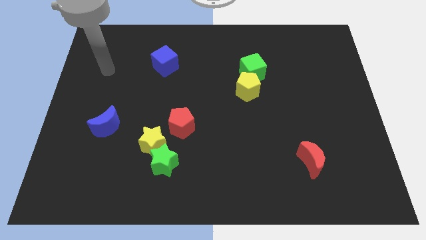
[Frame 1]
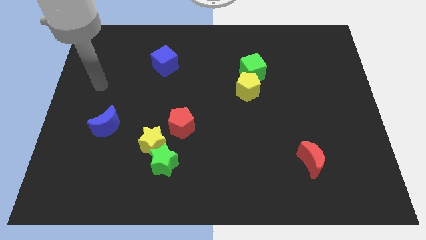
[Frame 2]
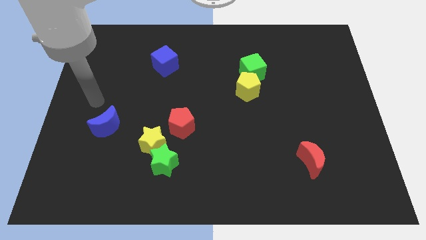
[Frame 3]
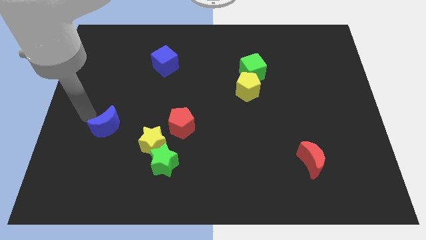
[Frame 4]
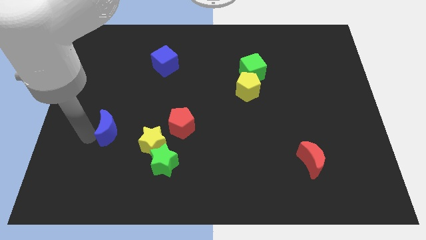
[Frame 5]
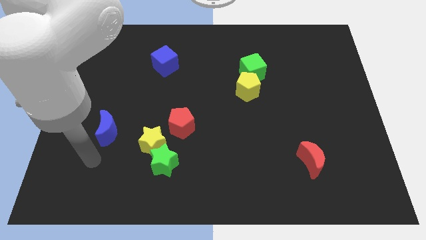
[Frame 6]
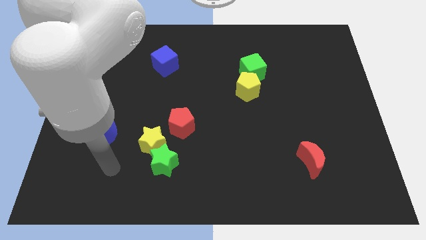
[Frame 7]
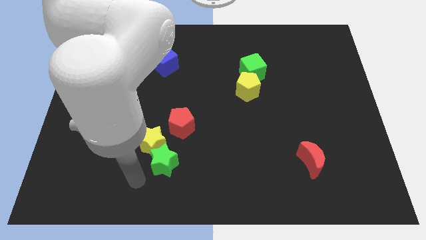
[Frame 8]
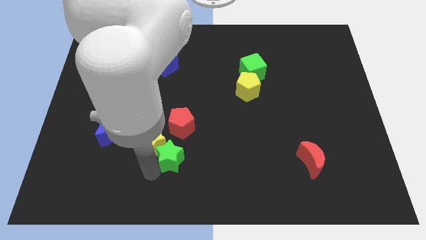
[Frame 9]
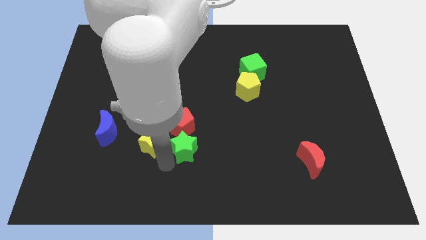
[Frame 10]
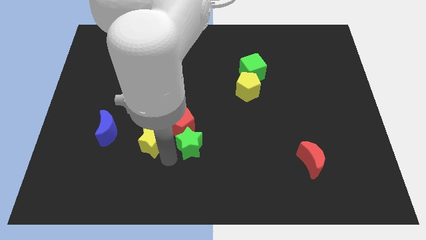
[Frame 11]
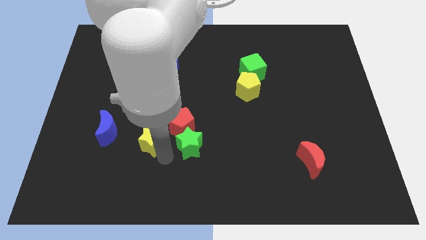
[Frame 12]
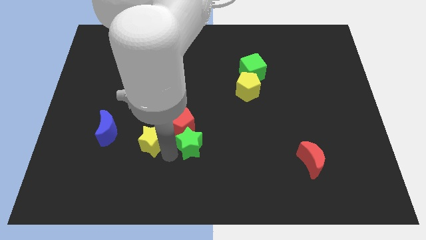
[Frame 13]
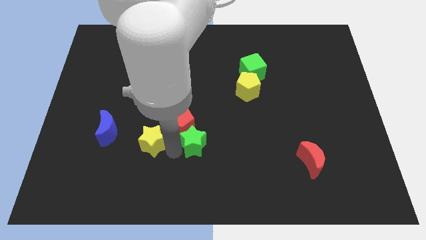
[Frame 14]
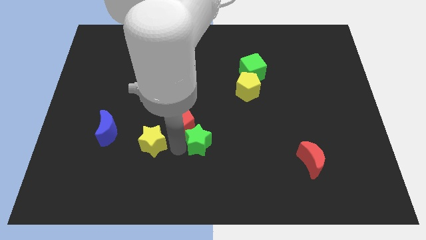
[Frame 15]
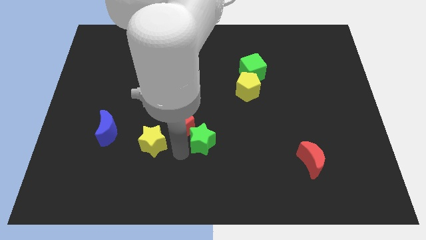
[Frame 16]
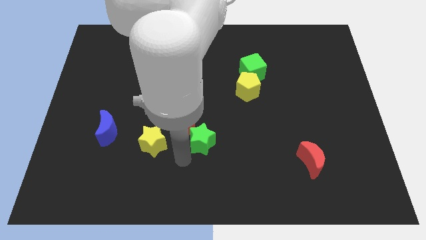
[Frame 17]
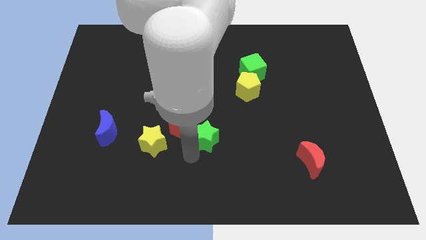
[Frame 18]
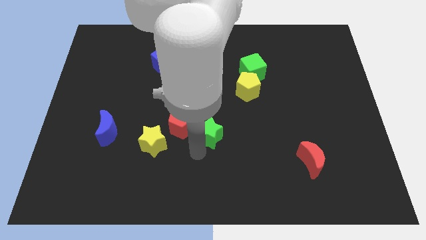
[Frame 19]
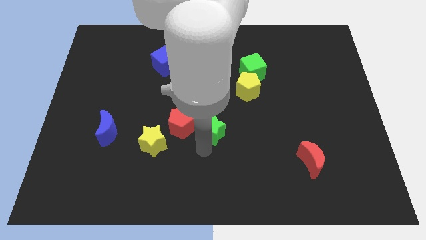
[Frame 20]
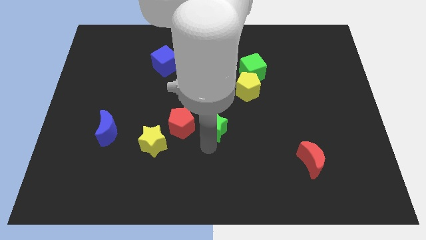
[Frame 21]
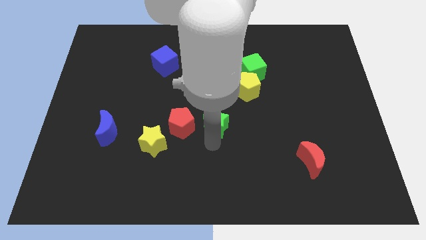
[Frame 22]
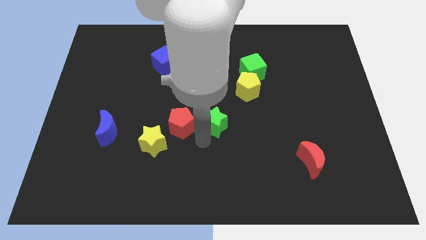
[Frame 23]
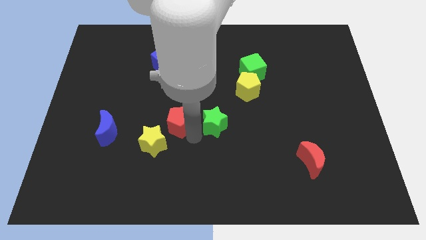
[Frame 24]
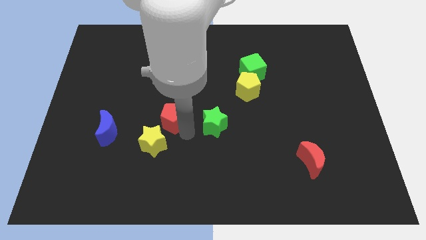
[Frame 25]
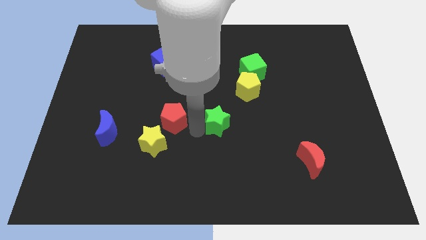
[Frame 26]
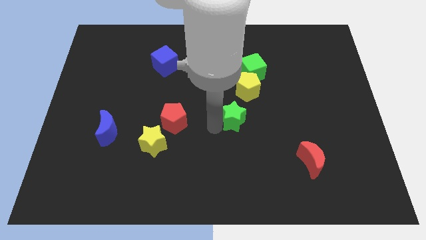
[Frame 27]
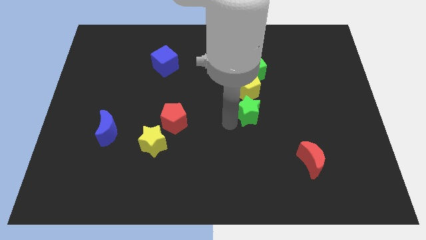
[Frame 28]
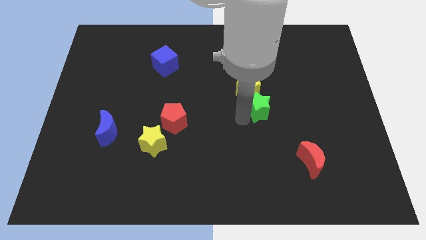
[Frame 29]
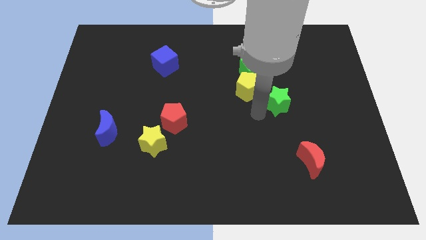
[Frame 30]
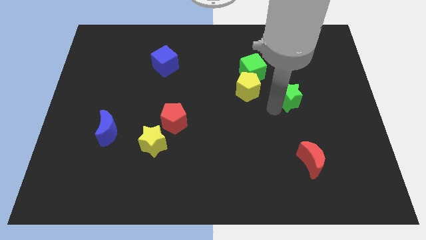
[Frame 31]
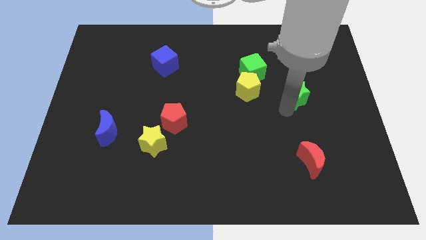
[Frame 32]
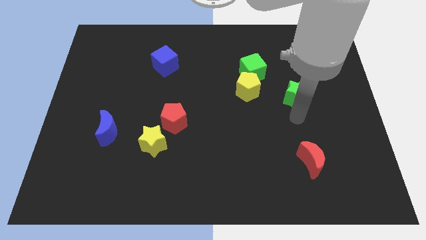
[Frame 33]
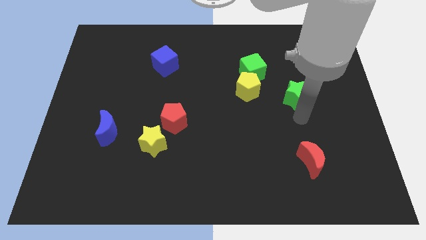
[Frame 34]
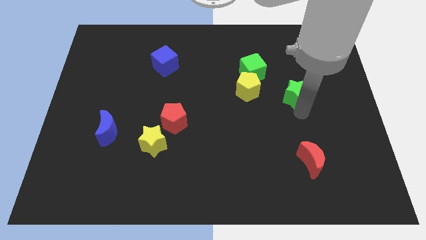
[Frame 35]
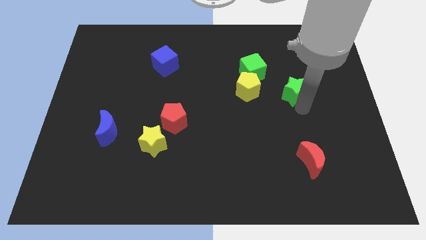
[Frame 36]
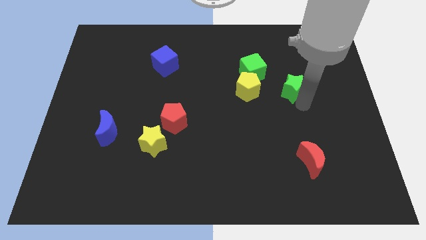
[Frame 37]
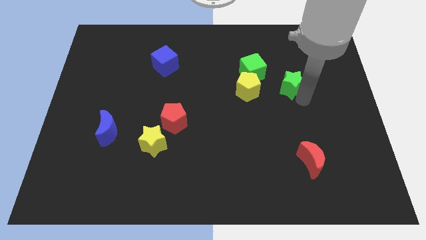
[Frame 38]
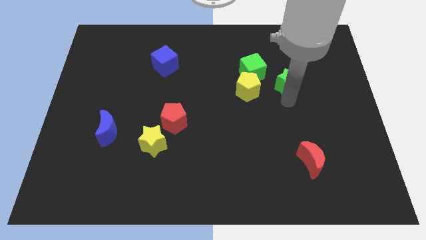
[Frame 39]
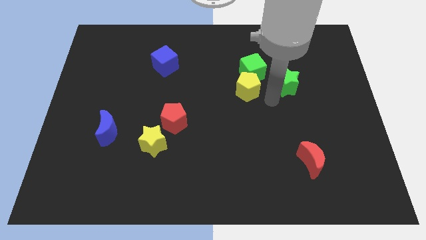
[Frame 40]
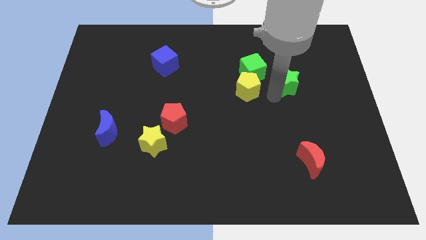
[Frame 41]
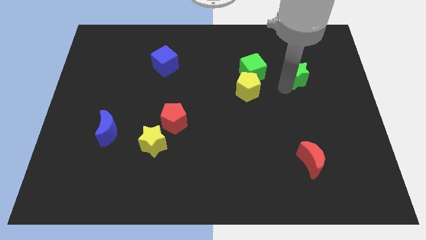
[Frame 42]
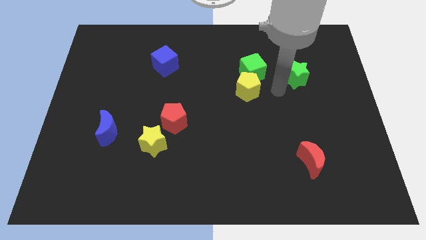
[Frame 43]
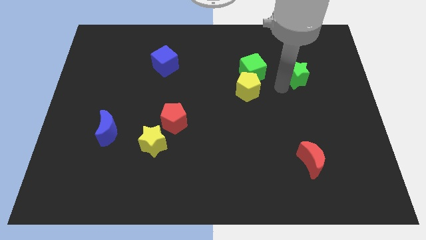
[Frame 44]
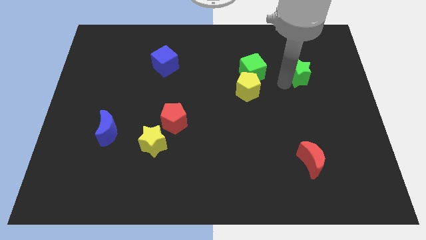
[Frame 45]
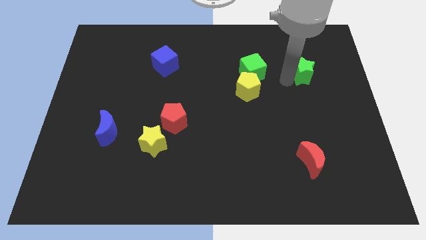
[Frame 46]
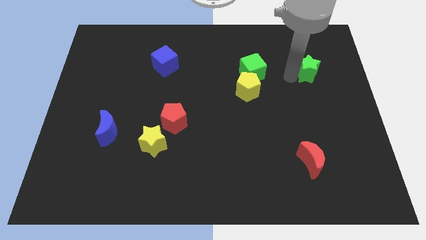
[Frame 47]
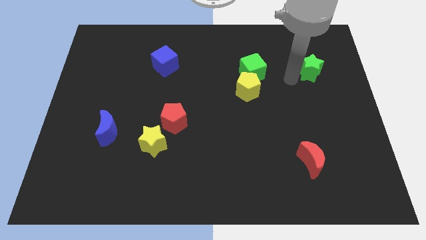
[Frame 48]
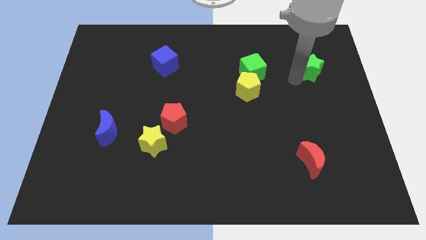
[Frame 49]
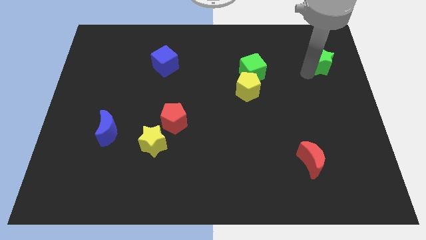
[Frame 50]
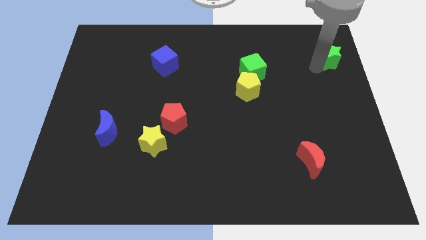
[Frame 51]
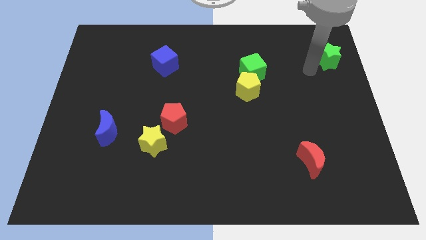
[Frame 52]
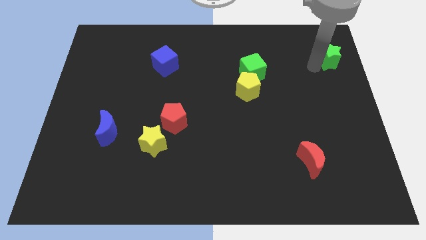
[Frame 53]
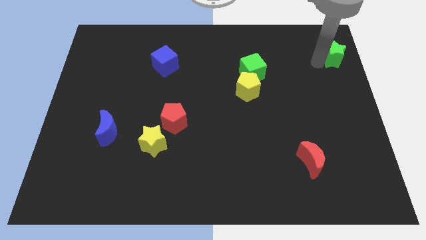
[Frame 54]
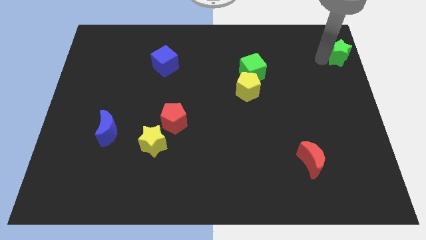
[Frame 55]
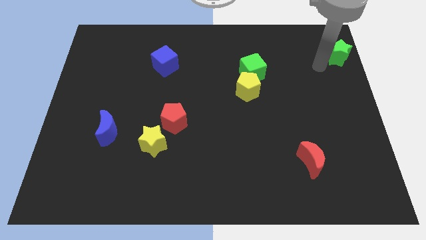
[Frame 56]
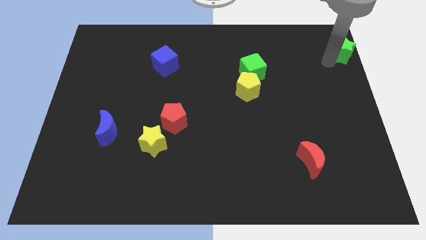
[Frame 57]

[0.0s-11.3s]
move the green star to the upper right corner

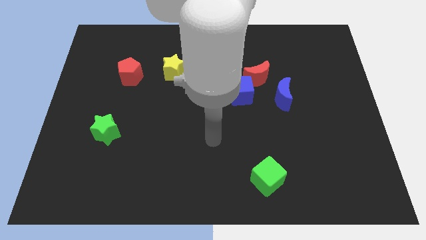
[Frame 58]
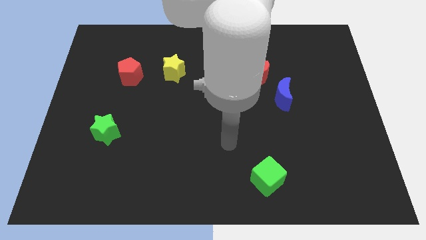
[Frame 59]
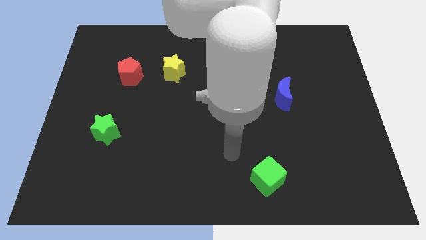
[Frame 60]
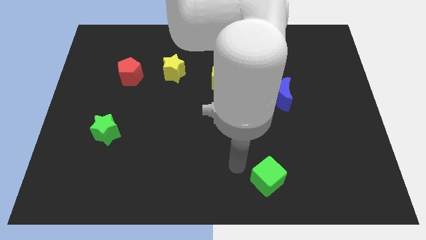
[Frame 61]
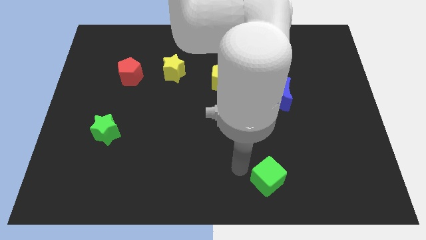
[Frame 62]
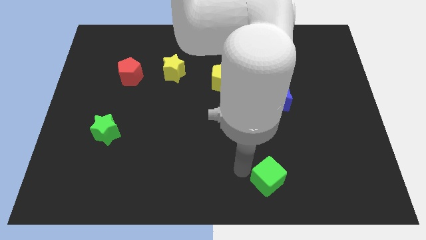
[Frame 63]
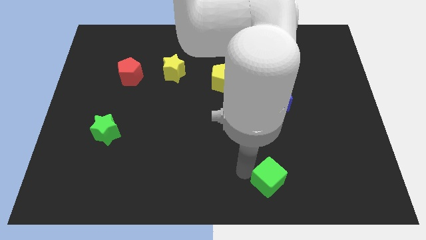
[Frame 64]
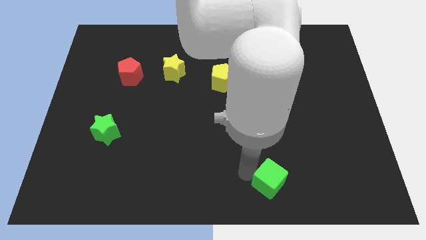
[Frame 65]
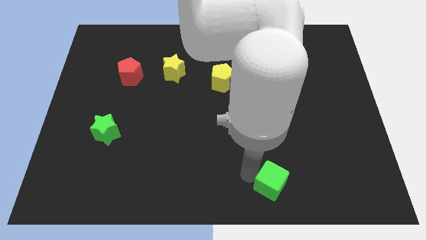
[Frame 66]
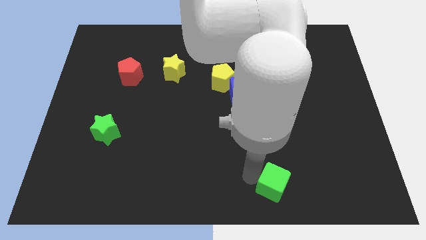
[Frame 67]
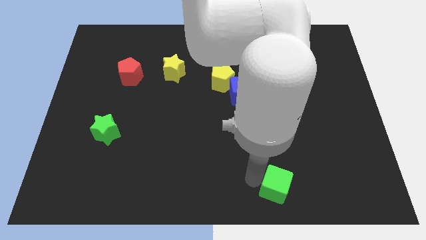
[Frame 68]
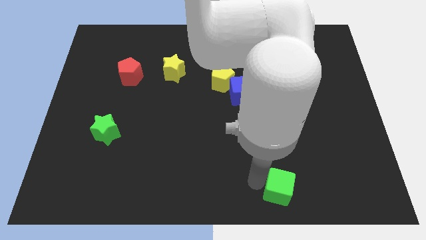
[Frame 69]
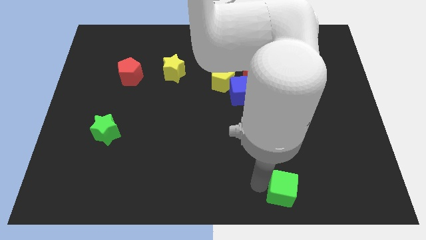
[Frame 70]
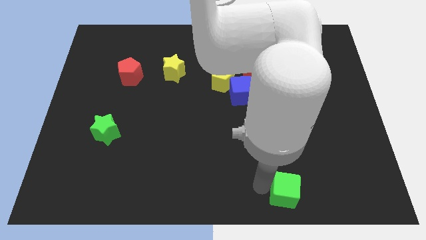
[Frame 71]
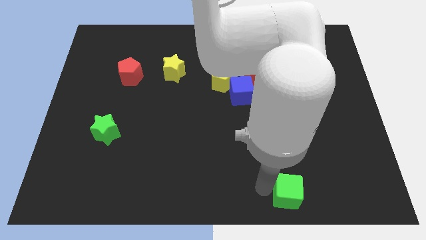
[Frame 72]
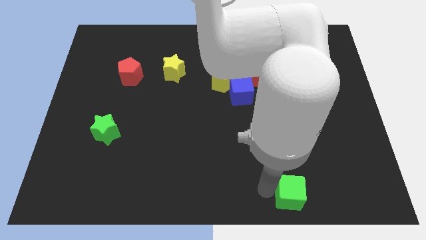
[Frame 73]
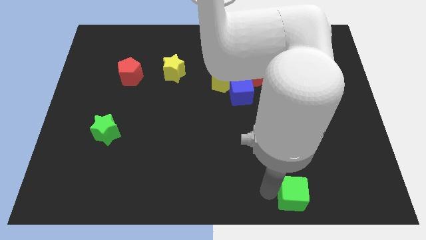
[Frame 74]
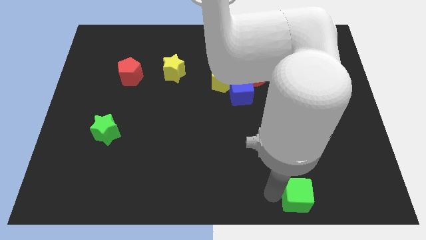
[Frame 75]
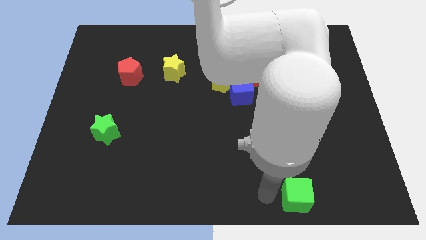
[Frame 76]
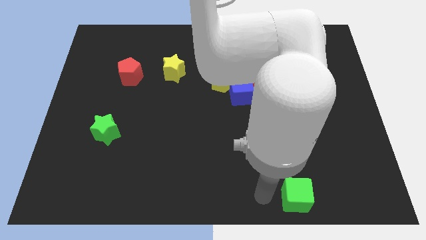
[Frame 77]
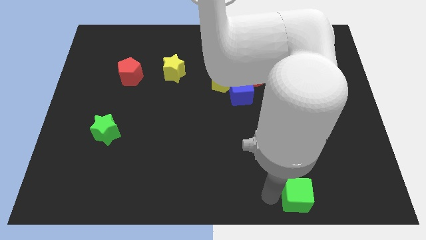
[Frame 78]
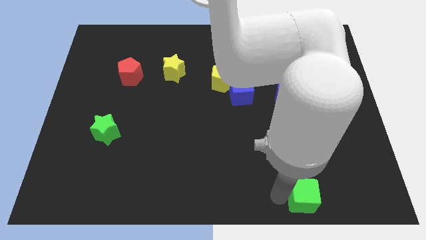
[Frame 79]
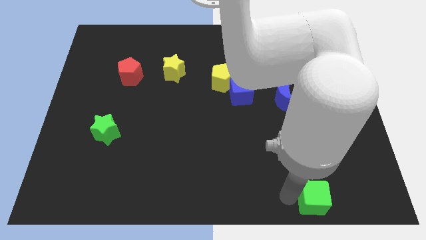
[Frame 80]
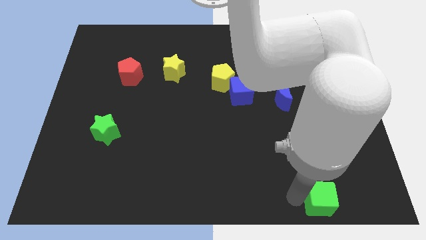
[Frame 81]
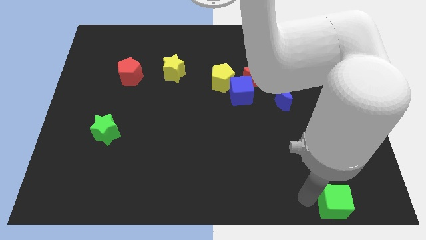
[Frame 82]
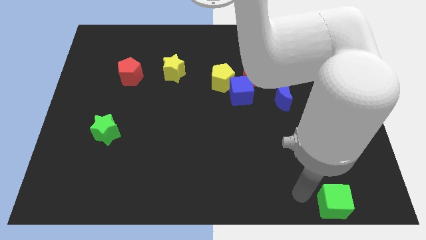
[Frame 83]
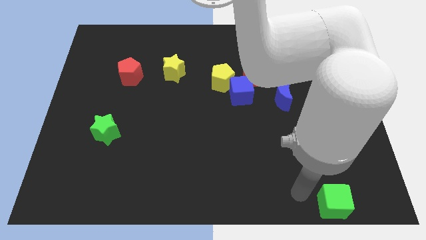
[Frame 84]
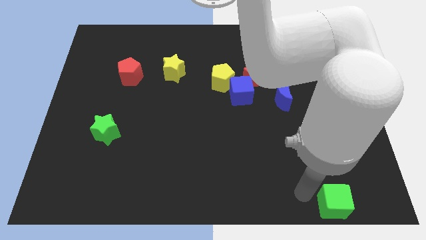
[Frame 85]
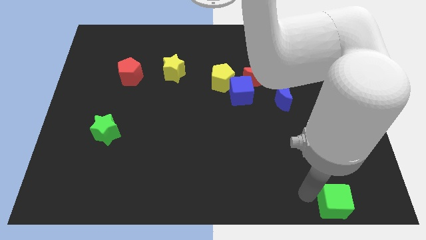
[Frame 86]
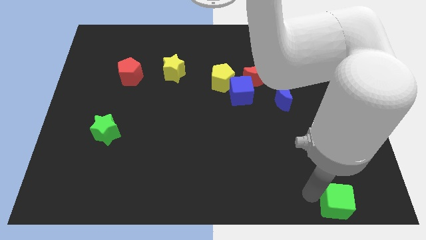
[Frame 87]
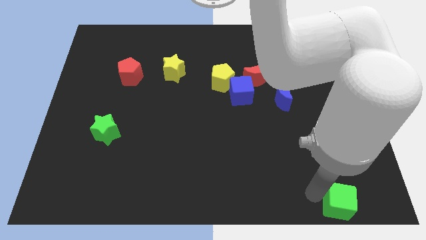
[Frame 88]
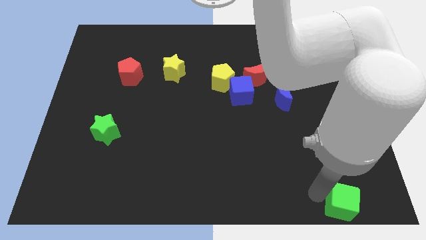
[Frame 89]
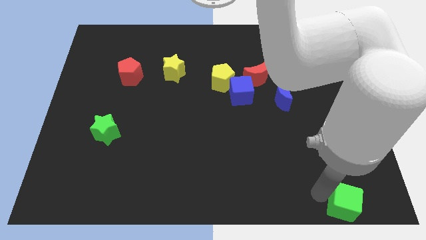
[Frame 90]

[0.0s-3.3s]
slide the green cube to the bottom right of the board
